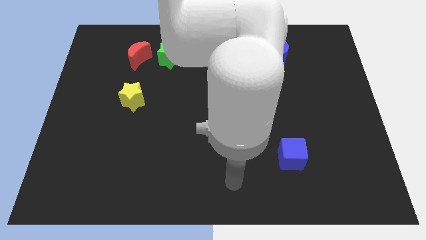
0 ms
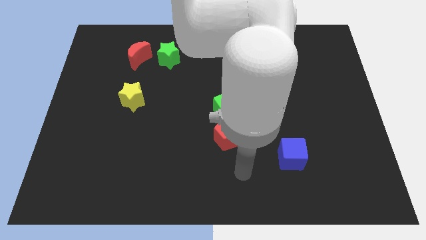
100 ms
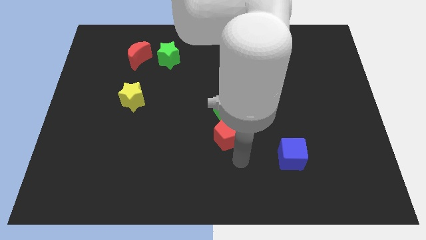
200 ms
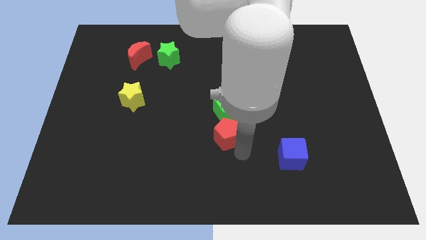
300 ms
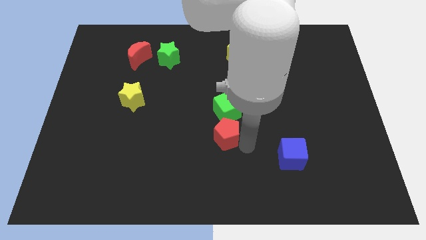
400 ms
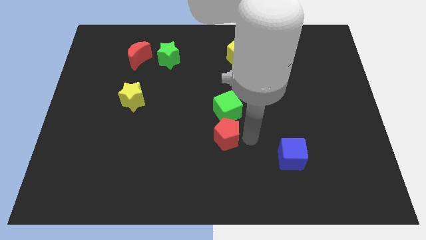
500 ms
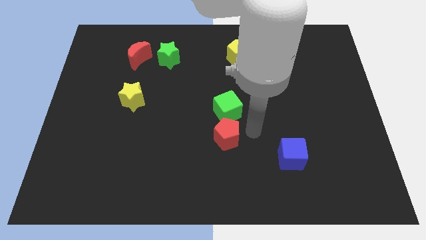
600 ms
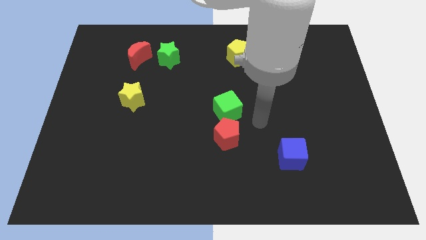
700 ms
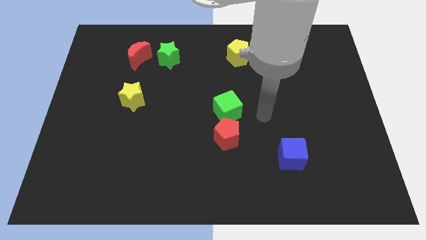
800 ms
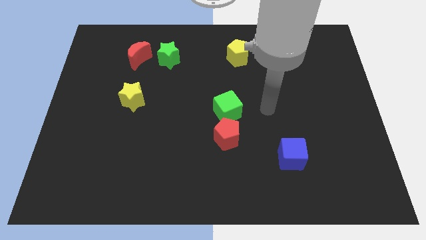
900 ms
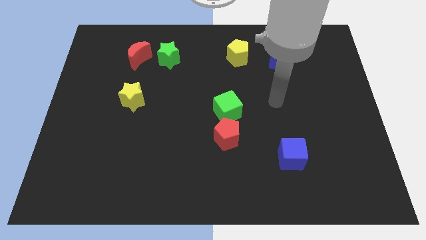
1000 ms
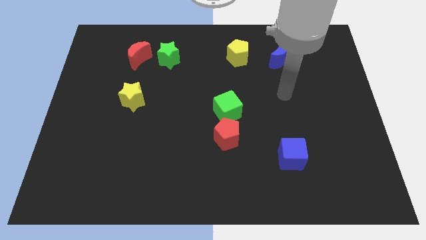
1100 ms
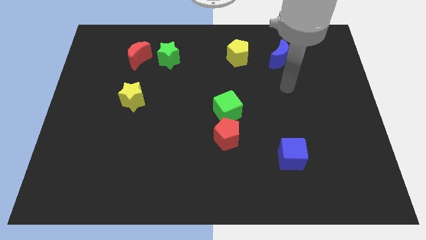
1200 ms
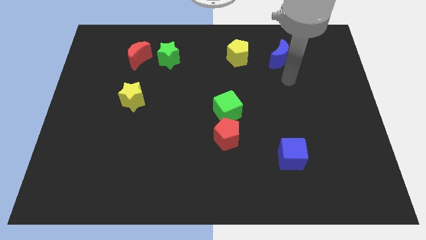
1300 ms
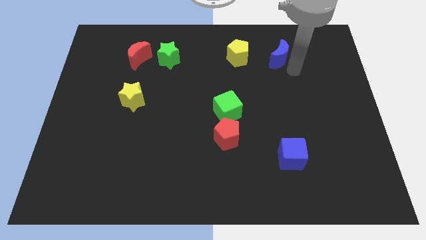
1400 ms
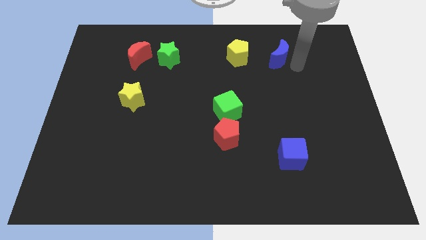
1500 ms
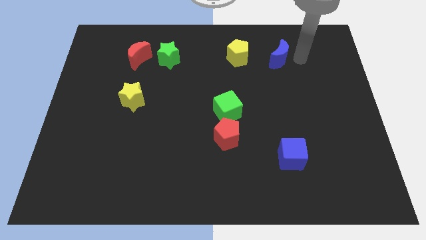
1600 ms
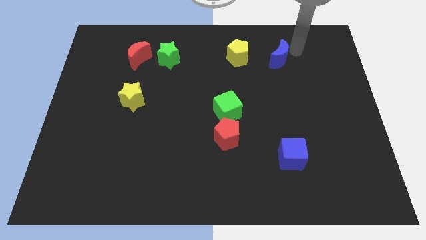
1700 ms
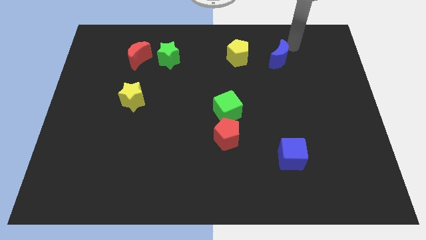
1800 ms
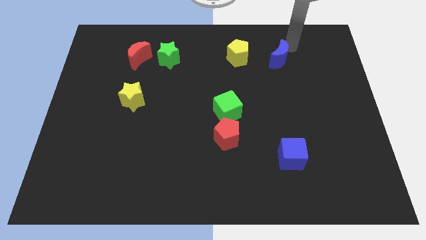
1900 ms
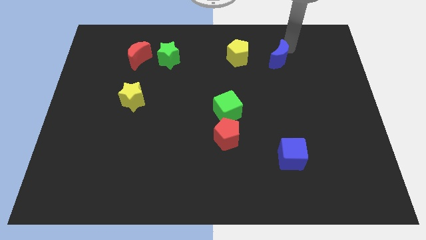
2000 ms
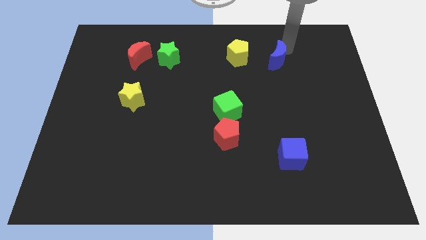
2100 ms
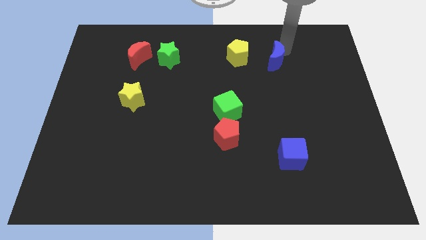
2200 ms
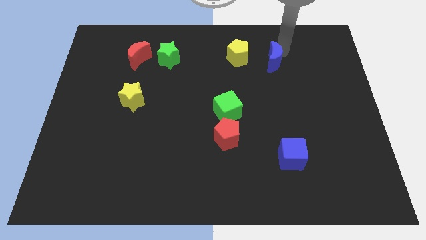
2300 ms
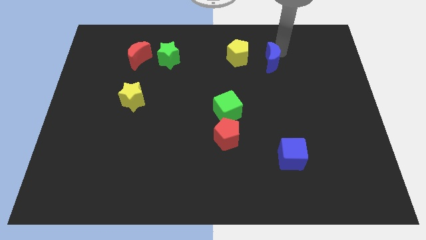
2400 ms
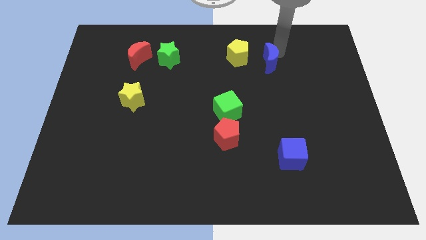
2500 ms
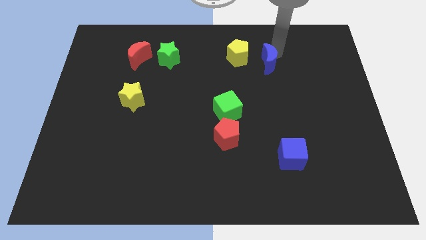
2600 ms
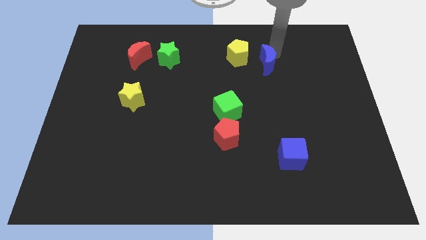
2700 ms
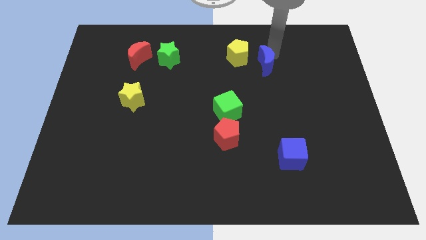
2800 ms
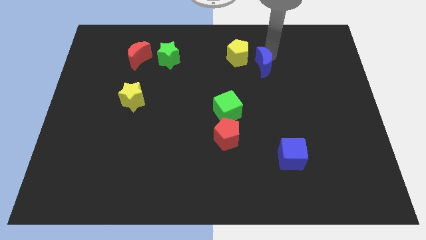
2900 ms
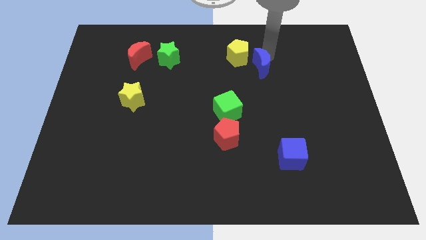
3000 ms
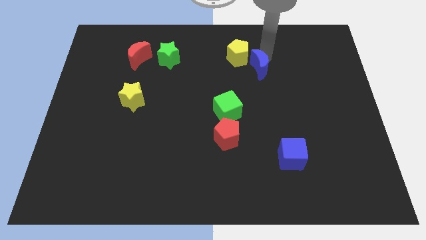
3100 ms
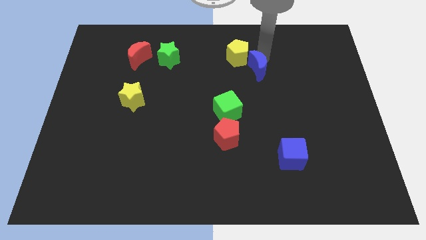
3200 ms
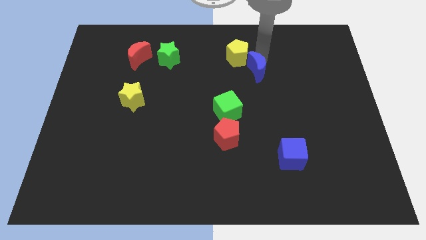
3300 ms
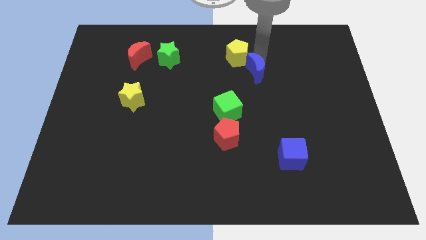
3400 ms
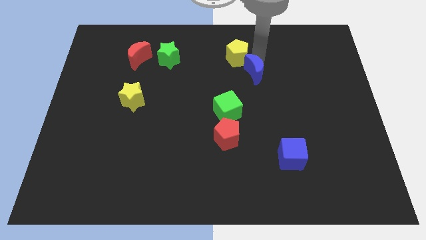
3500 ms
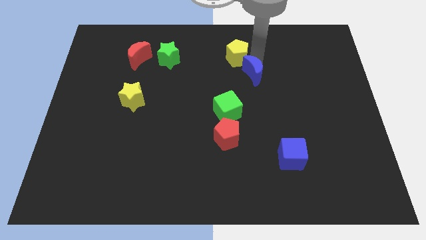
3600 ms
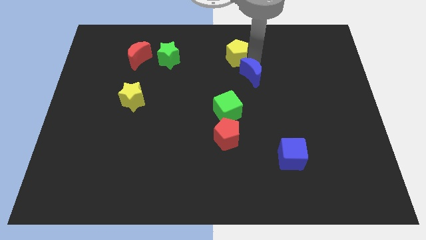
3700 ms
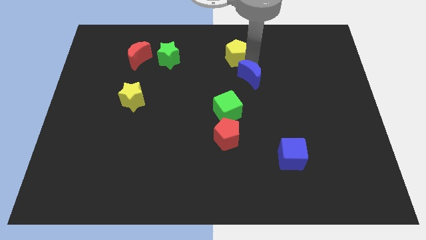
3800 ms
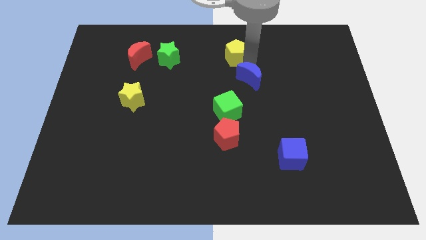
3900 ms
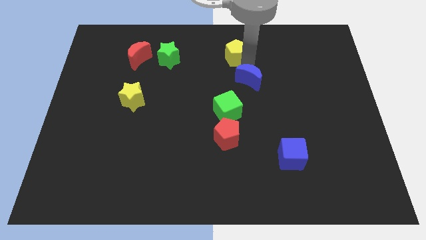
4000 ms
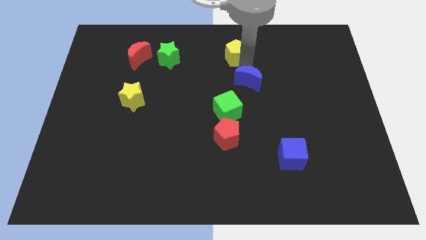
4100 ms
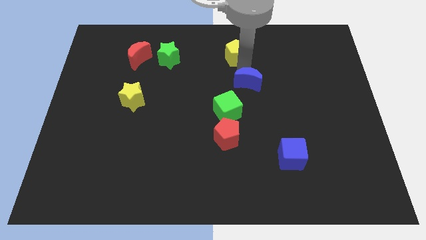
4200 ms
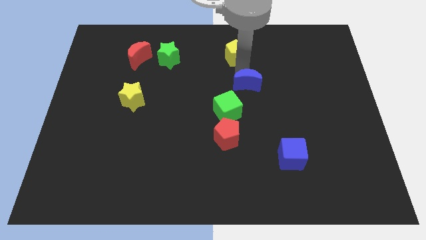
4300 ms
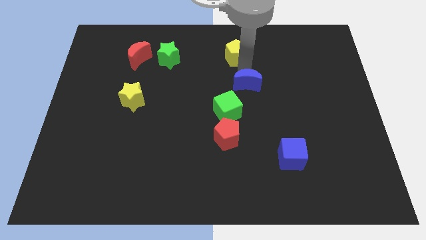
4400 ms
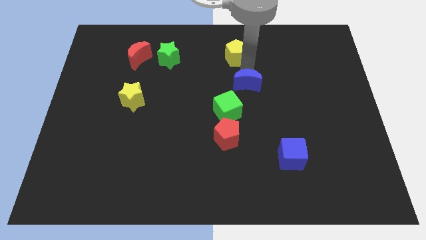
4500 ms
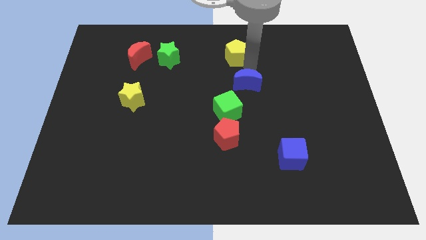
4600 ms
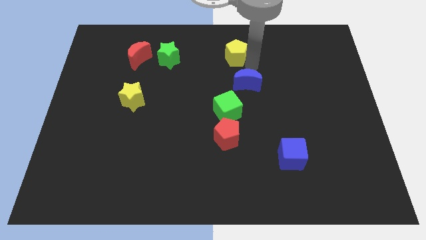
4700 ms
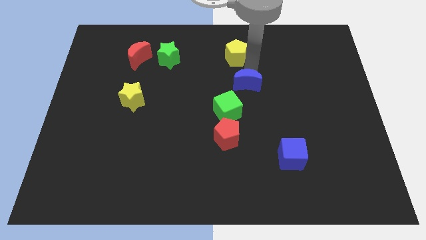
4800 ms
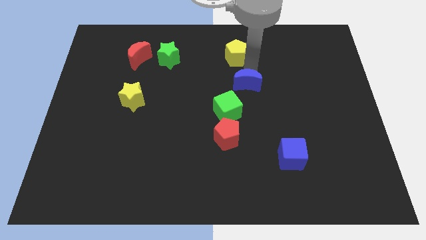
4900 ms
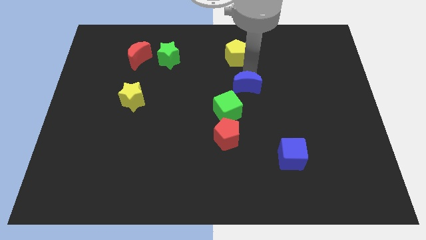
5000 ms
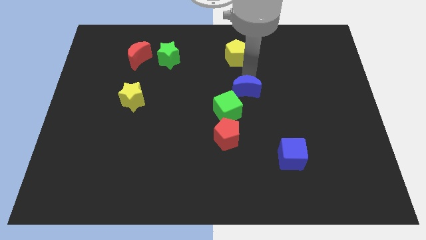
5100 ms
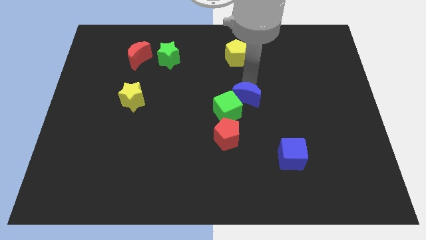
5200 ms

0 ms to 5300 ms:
move the blue moon to the green cube

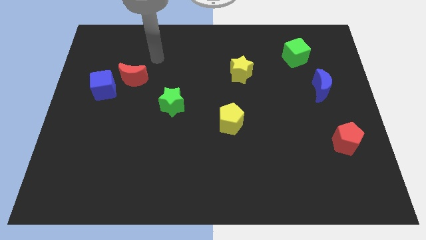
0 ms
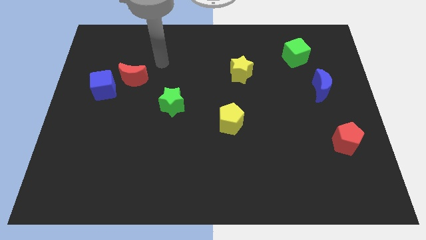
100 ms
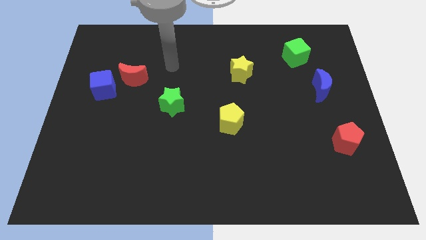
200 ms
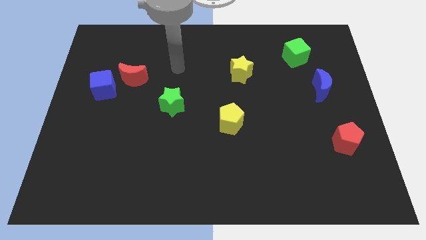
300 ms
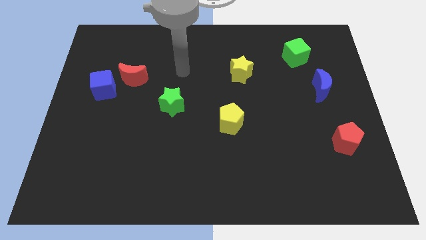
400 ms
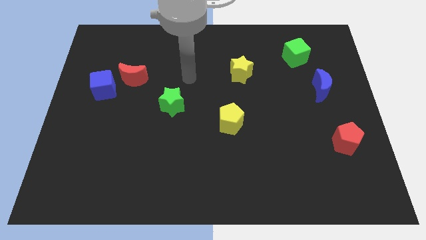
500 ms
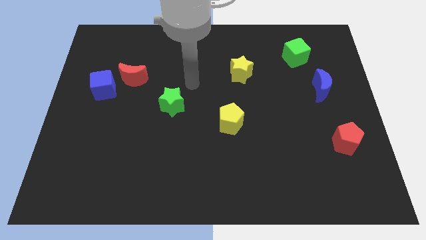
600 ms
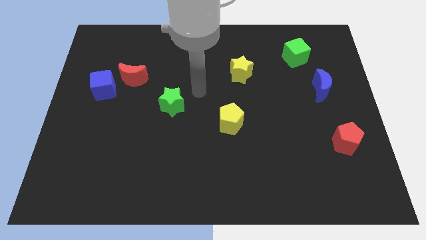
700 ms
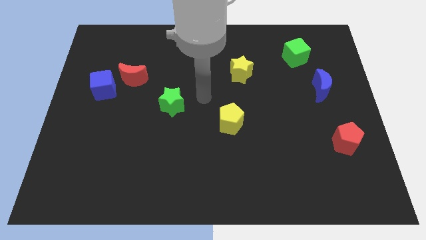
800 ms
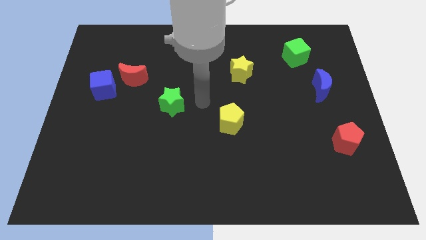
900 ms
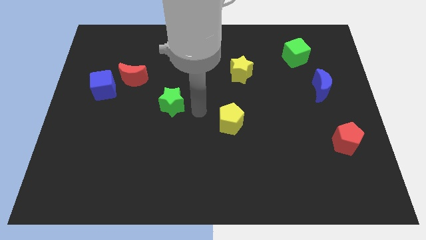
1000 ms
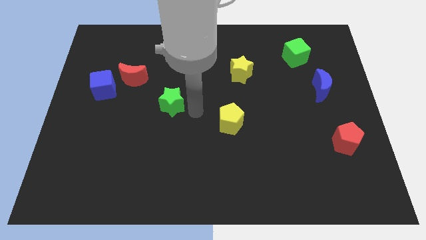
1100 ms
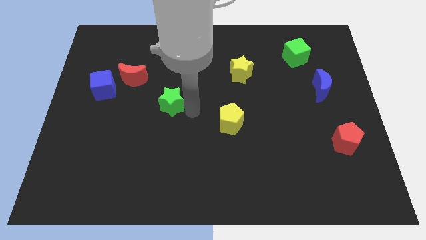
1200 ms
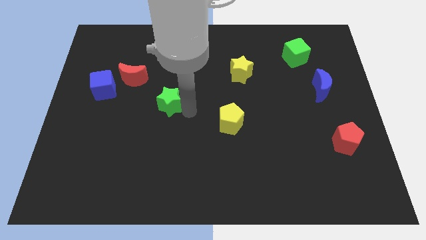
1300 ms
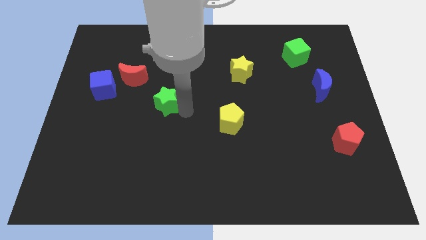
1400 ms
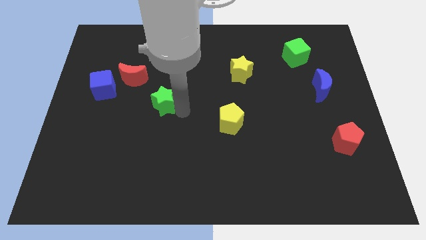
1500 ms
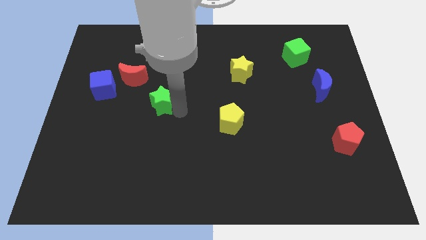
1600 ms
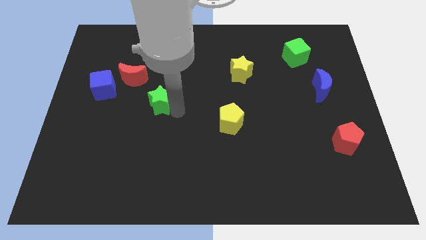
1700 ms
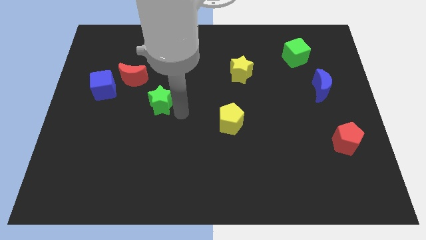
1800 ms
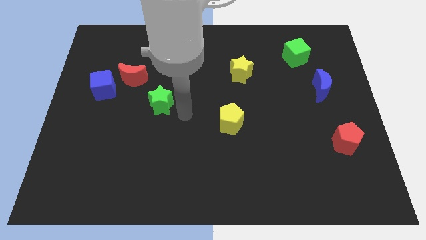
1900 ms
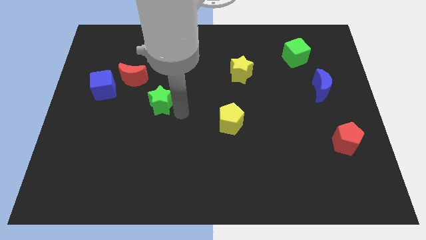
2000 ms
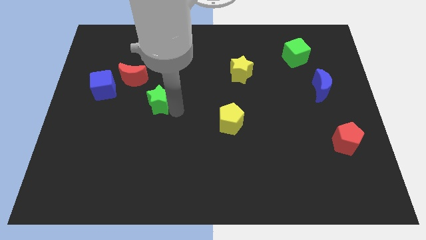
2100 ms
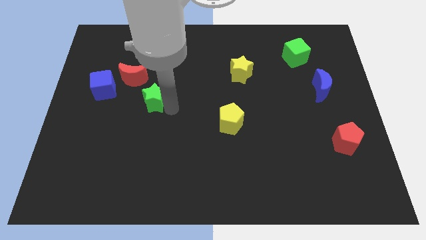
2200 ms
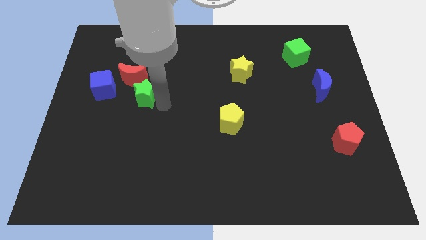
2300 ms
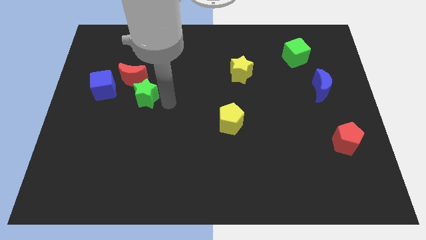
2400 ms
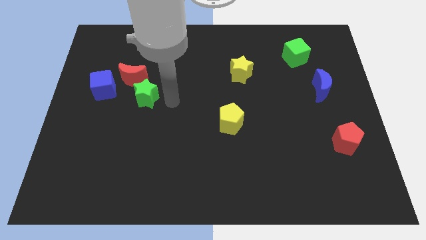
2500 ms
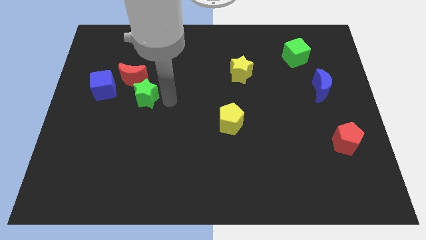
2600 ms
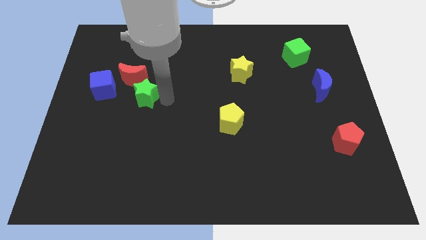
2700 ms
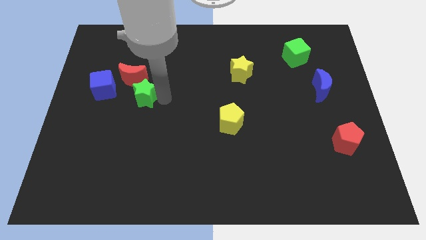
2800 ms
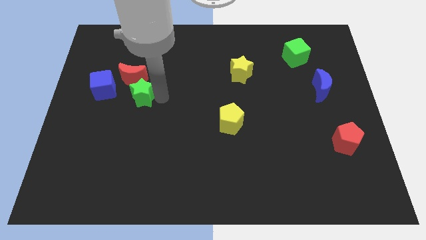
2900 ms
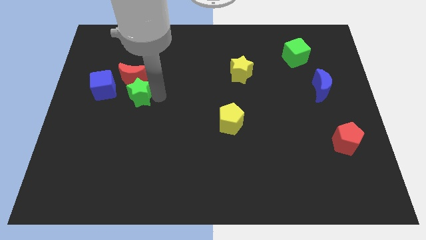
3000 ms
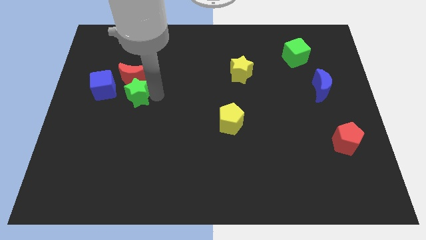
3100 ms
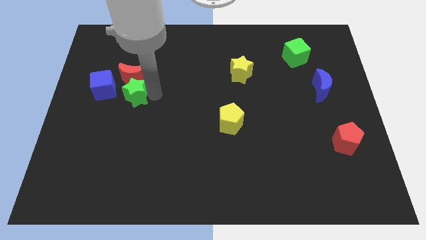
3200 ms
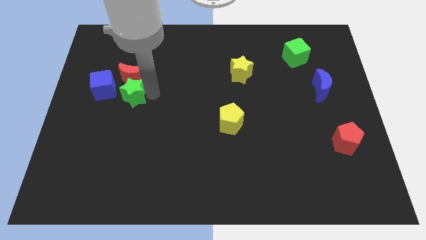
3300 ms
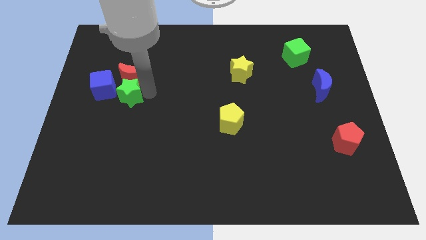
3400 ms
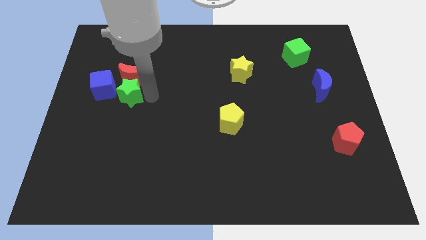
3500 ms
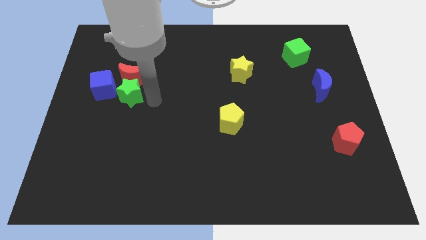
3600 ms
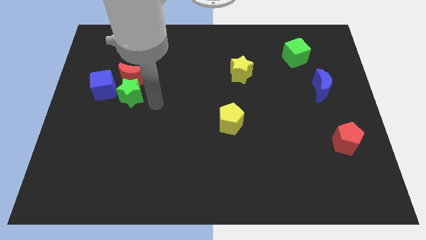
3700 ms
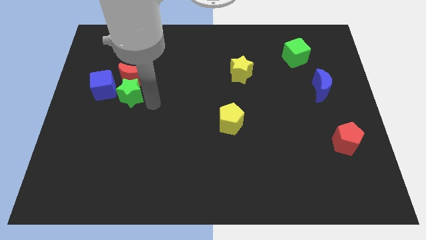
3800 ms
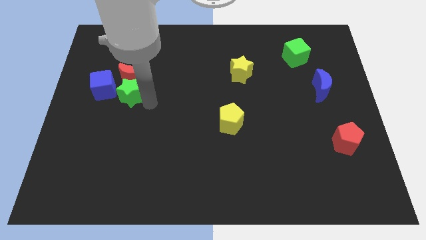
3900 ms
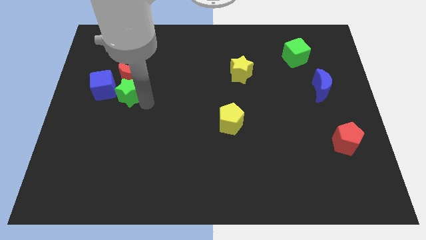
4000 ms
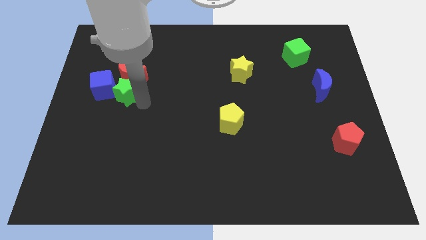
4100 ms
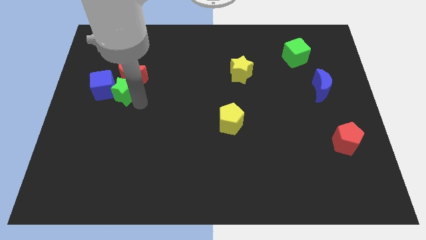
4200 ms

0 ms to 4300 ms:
slide the green star close to the blue cube
